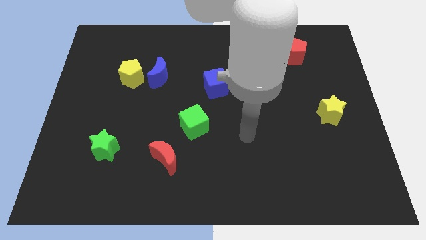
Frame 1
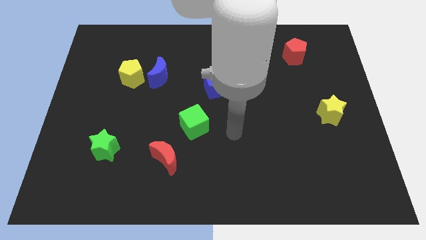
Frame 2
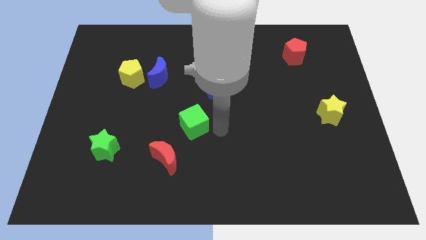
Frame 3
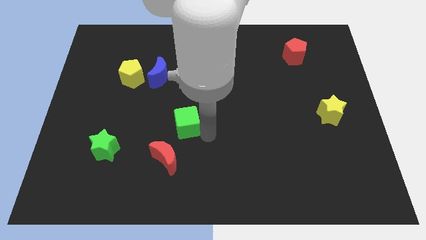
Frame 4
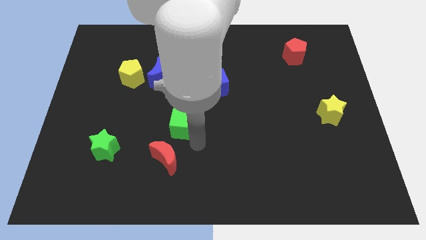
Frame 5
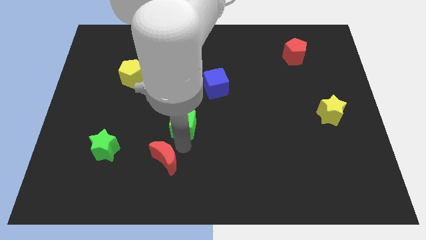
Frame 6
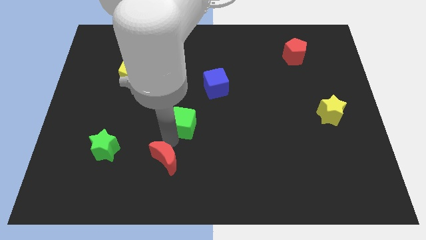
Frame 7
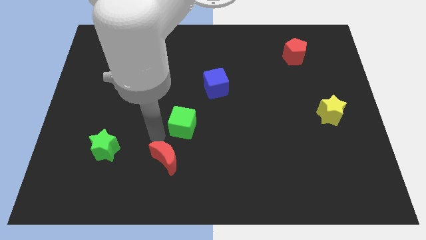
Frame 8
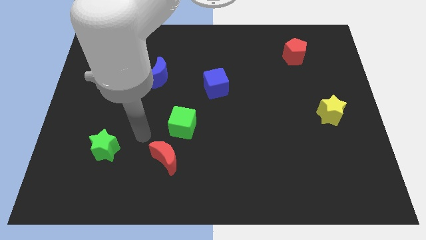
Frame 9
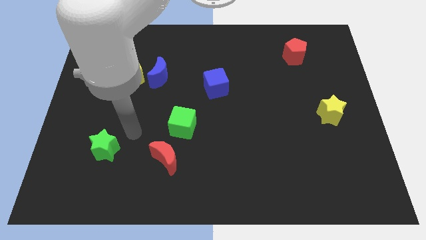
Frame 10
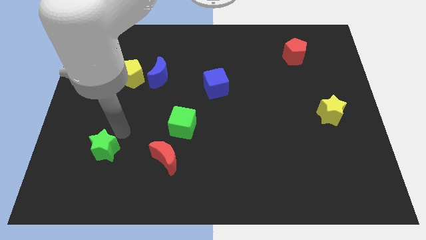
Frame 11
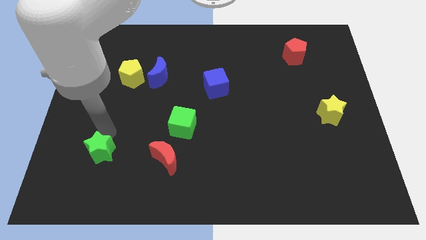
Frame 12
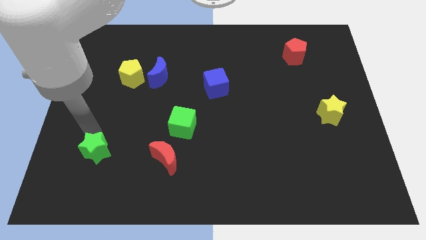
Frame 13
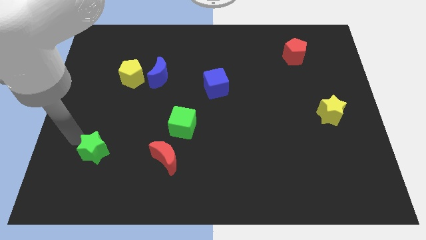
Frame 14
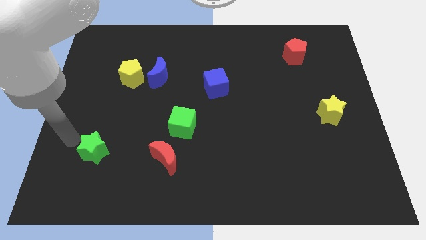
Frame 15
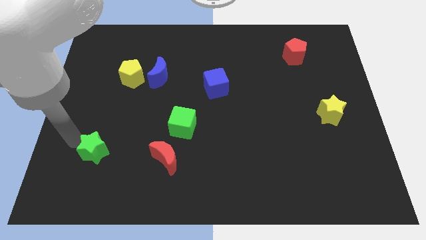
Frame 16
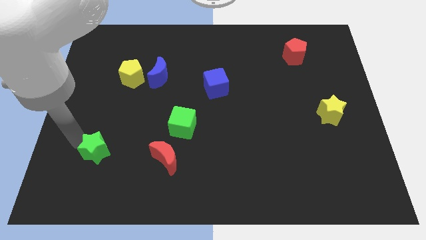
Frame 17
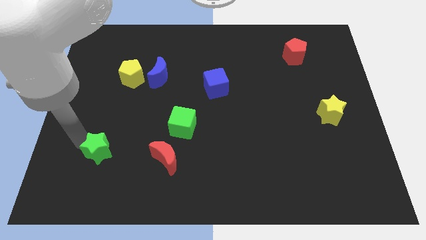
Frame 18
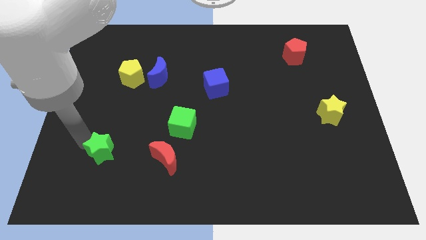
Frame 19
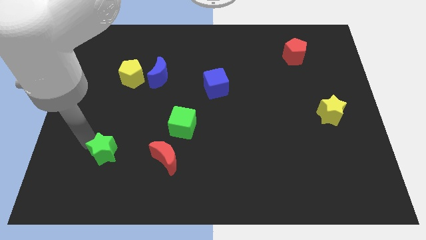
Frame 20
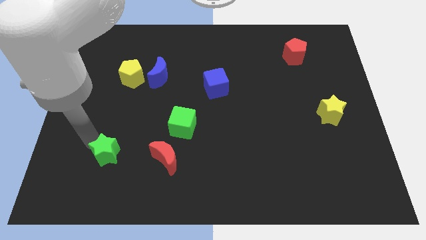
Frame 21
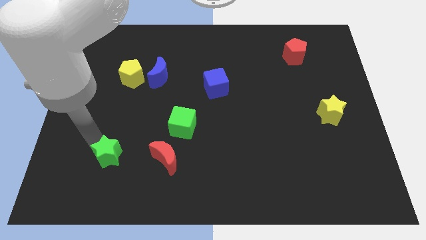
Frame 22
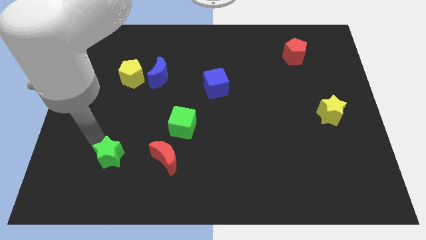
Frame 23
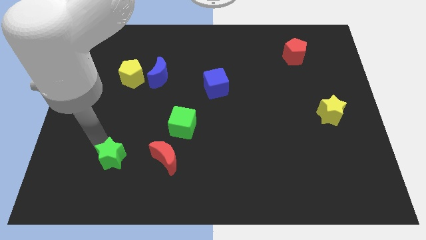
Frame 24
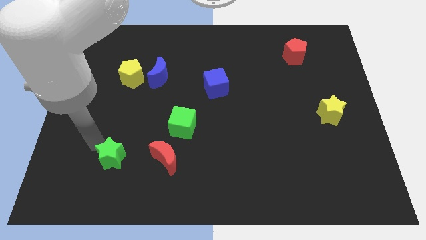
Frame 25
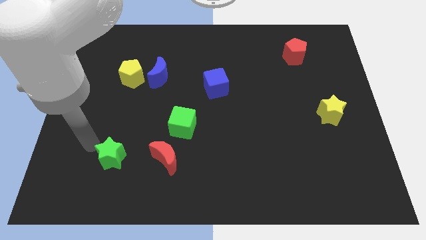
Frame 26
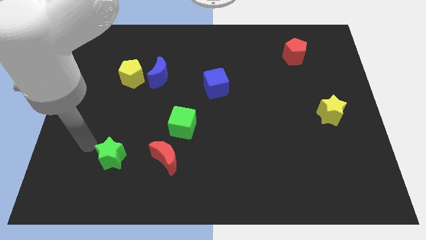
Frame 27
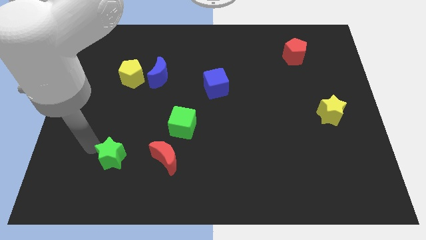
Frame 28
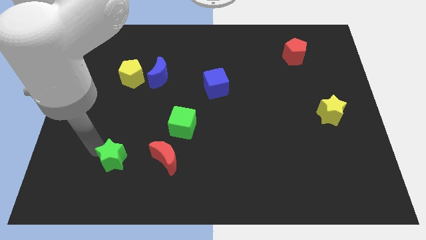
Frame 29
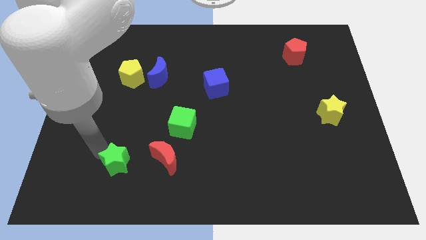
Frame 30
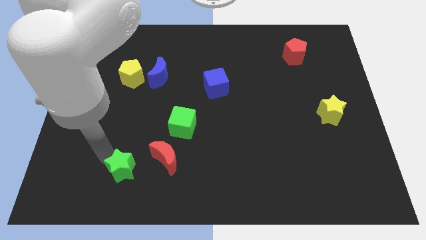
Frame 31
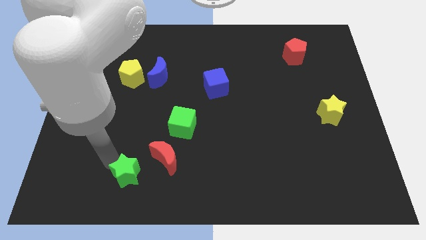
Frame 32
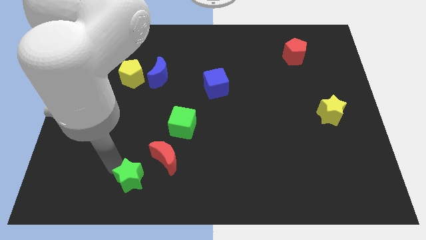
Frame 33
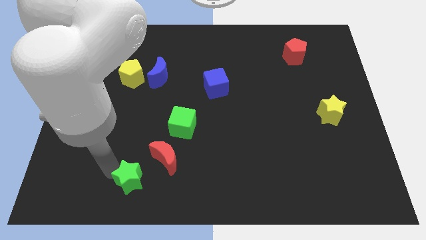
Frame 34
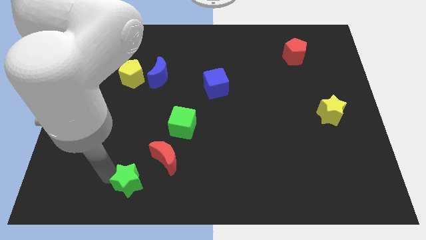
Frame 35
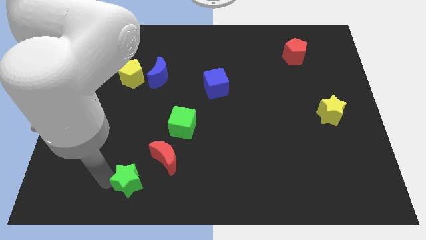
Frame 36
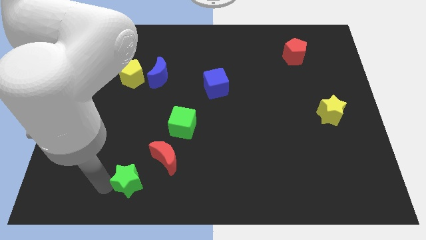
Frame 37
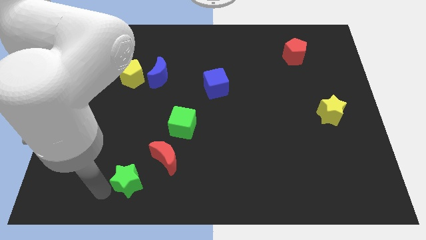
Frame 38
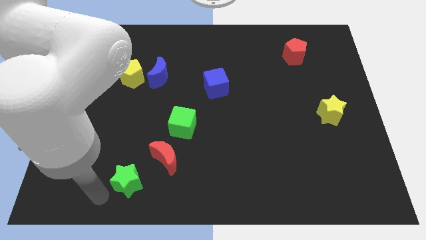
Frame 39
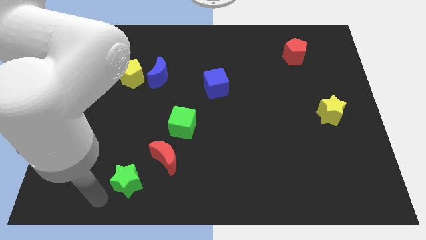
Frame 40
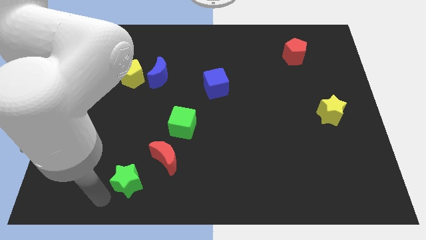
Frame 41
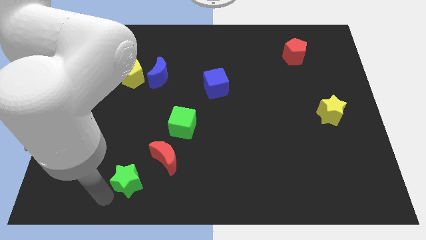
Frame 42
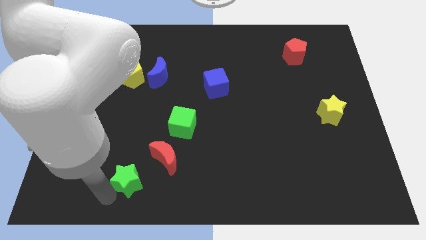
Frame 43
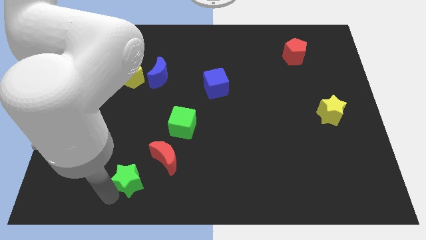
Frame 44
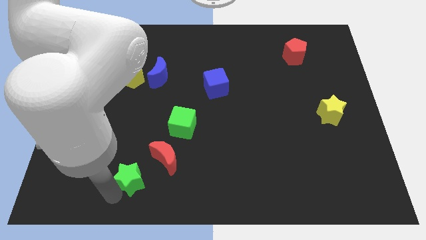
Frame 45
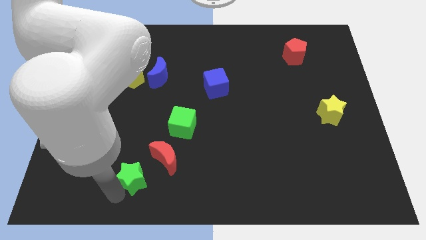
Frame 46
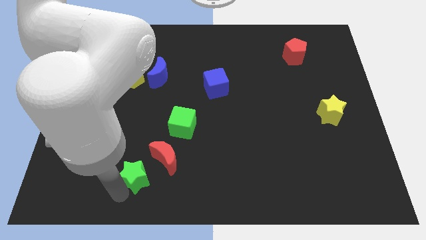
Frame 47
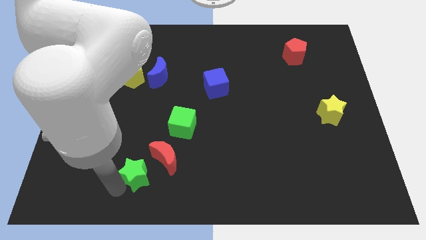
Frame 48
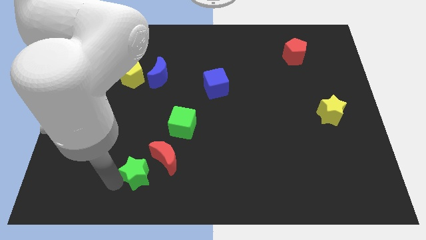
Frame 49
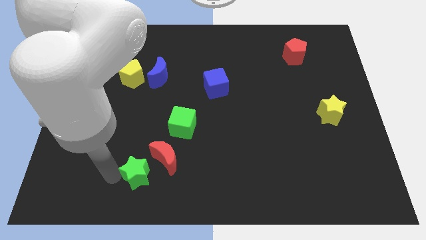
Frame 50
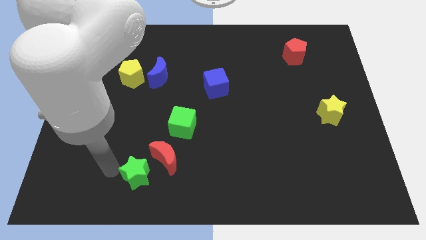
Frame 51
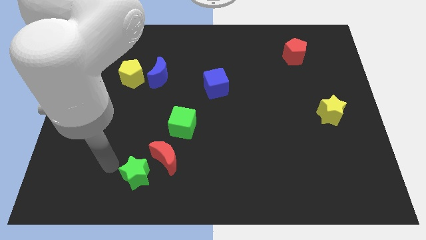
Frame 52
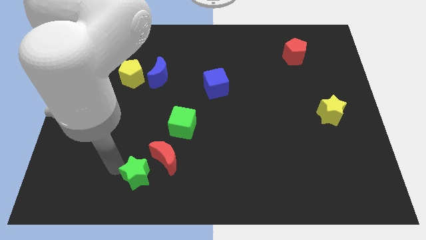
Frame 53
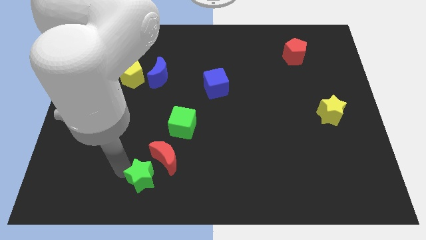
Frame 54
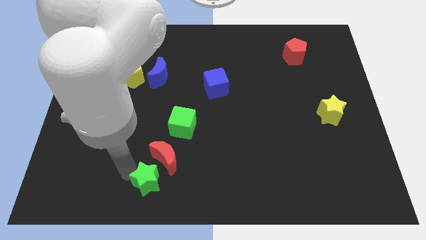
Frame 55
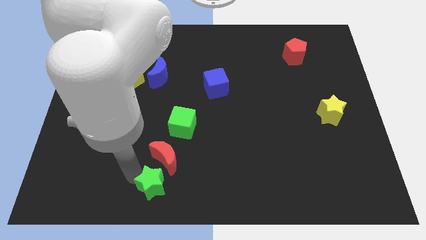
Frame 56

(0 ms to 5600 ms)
put the green star to the bottom side
